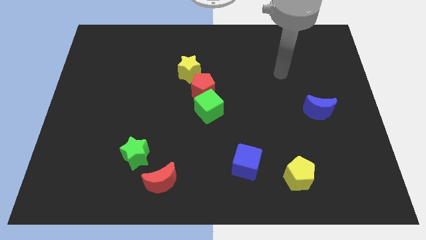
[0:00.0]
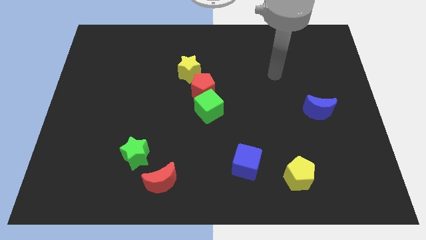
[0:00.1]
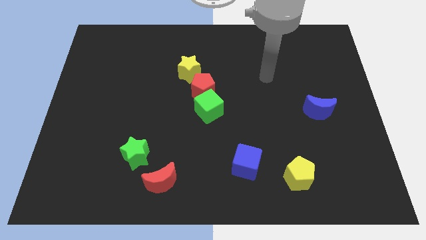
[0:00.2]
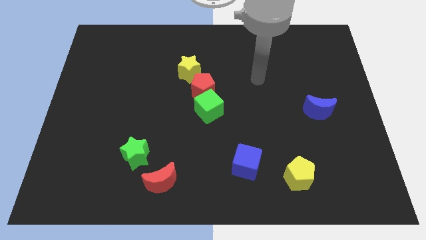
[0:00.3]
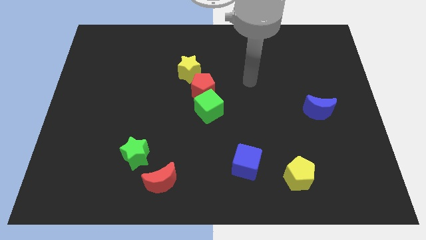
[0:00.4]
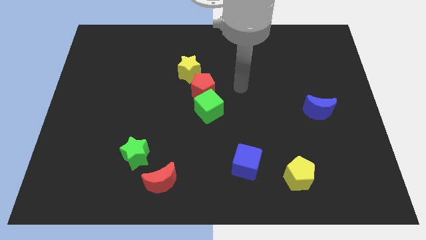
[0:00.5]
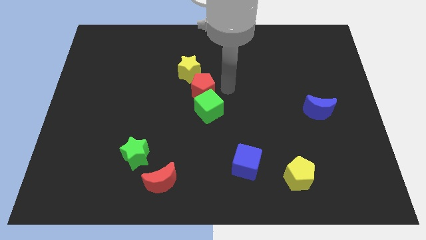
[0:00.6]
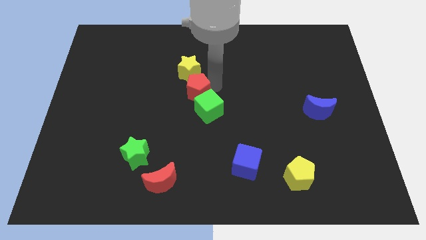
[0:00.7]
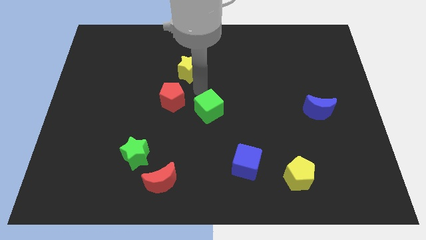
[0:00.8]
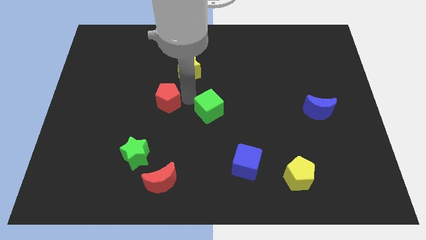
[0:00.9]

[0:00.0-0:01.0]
pull the green cube apart from the red pentagon

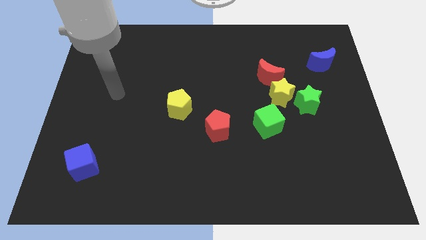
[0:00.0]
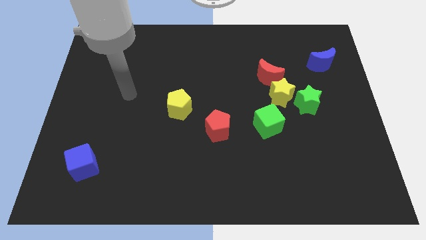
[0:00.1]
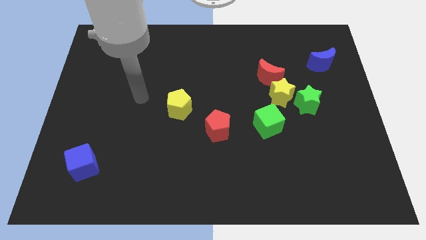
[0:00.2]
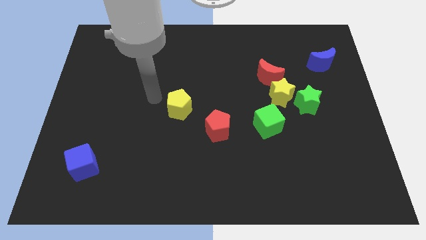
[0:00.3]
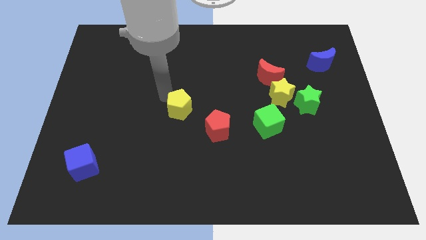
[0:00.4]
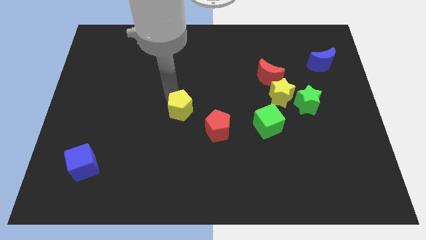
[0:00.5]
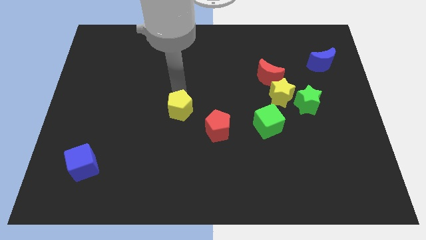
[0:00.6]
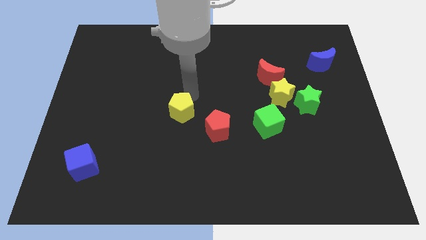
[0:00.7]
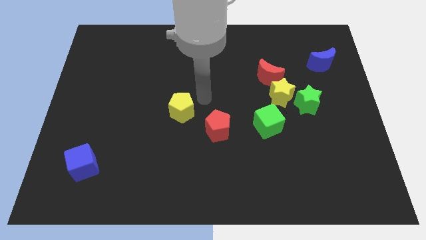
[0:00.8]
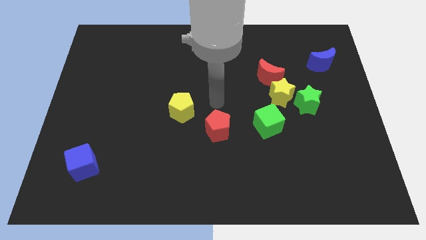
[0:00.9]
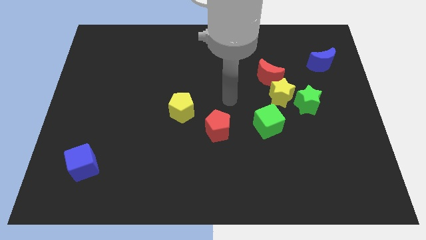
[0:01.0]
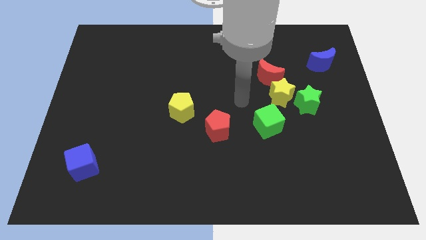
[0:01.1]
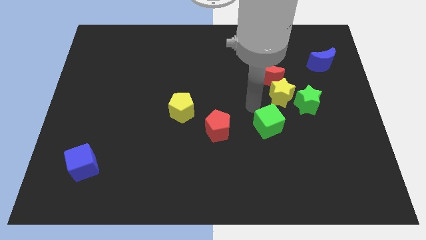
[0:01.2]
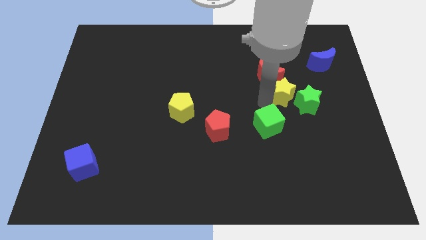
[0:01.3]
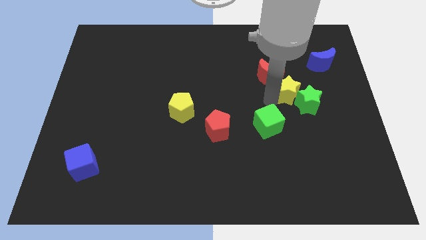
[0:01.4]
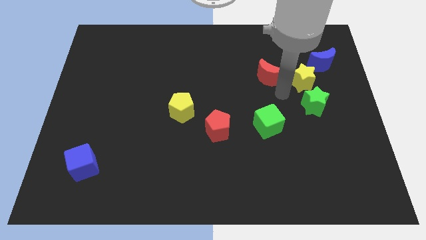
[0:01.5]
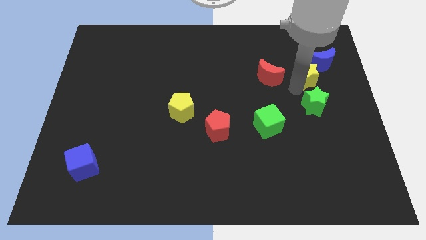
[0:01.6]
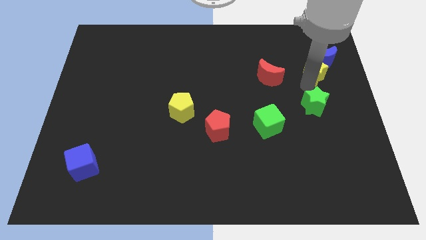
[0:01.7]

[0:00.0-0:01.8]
pull the green star apart from the yellow star

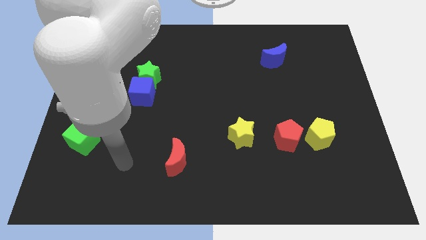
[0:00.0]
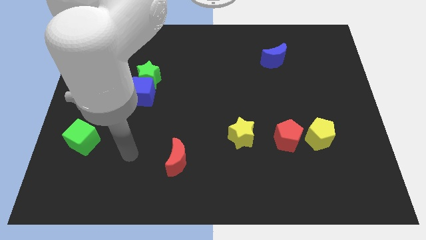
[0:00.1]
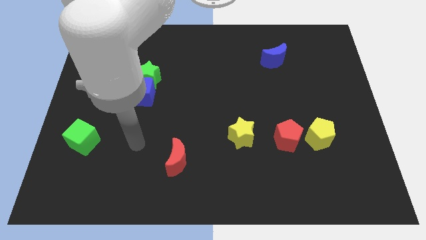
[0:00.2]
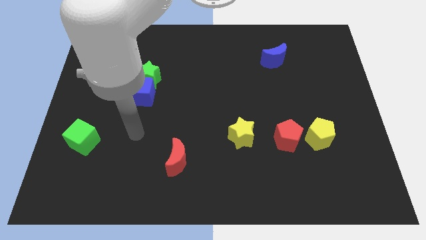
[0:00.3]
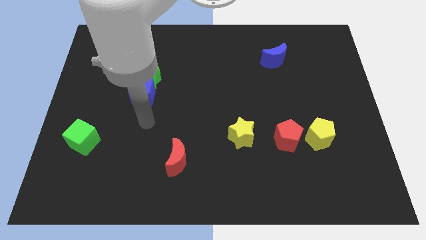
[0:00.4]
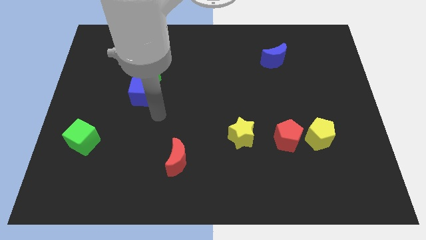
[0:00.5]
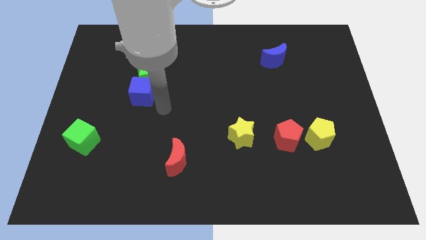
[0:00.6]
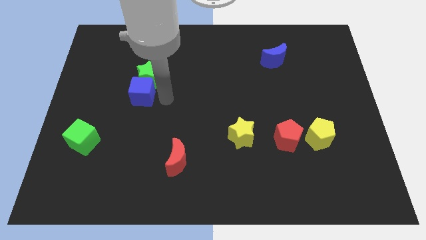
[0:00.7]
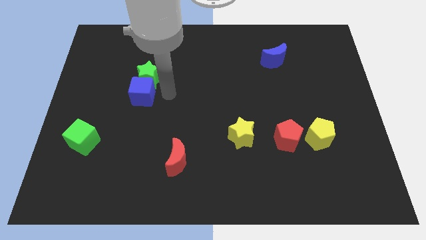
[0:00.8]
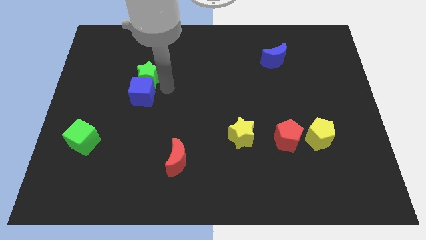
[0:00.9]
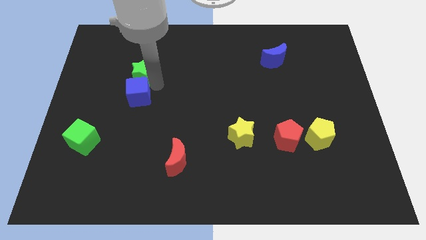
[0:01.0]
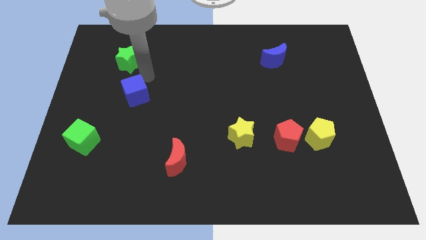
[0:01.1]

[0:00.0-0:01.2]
separate the blue cube from the green star

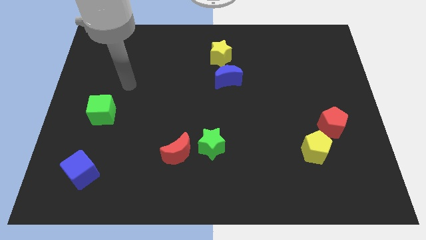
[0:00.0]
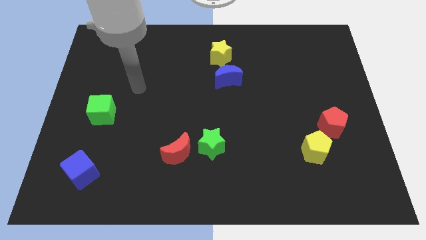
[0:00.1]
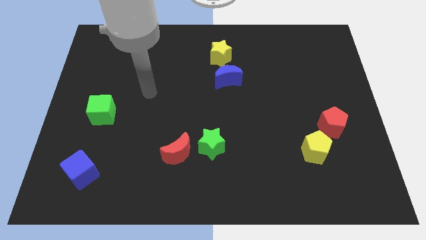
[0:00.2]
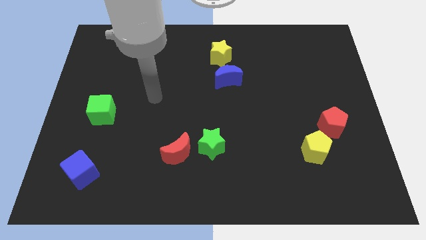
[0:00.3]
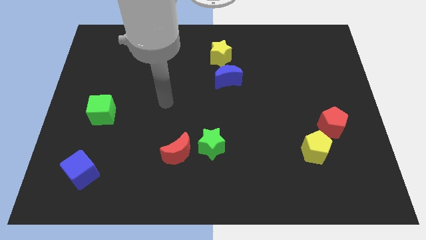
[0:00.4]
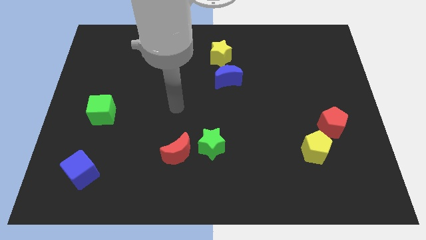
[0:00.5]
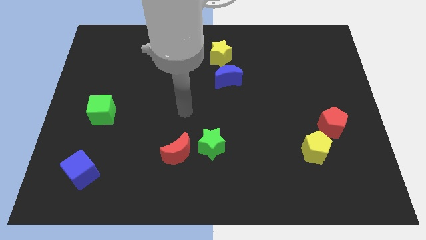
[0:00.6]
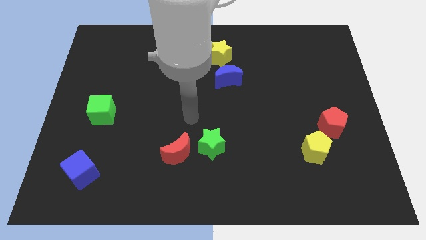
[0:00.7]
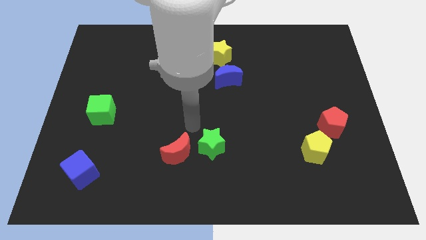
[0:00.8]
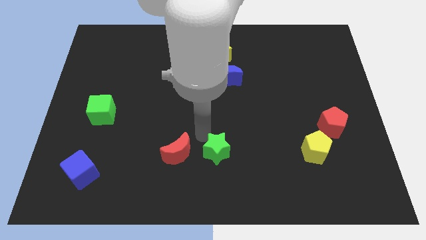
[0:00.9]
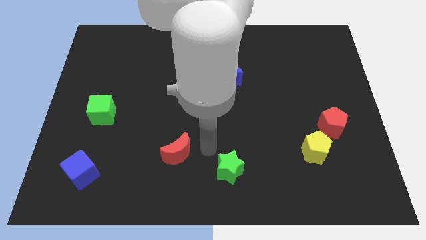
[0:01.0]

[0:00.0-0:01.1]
separate the red moon from the green star

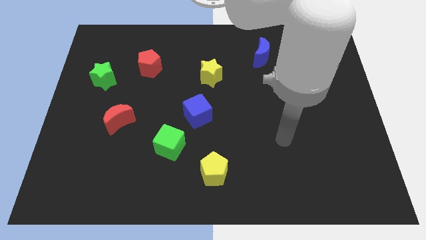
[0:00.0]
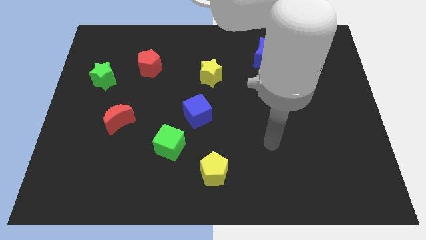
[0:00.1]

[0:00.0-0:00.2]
separate the blue cube from the green cube

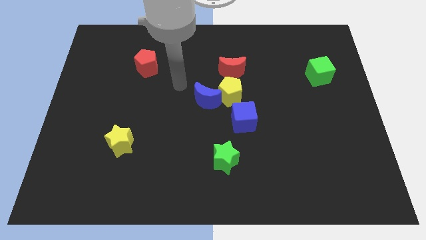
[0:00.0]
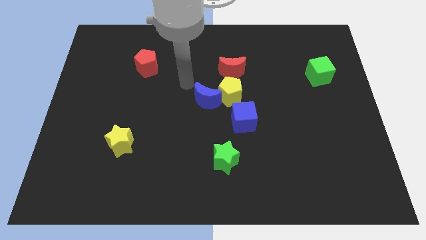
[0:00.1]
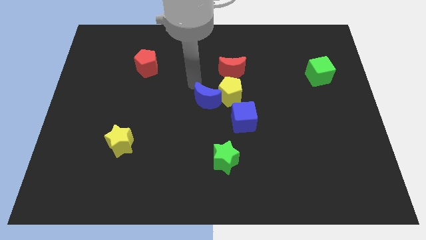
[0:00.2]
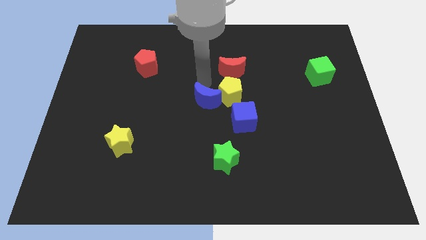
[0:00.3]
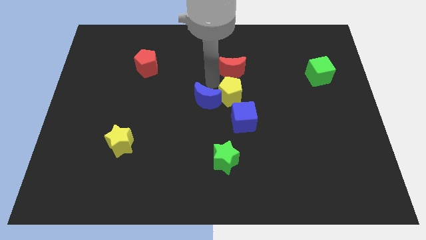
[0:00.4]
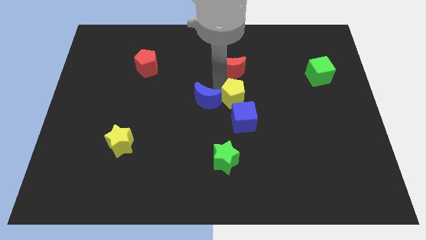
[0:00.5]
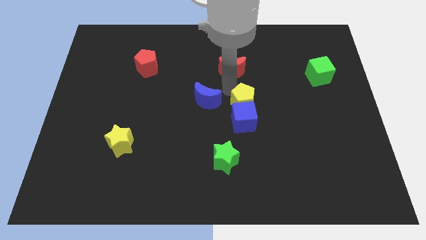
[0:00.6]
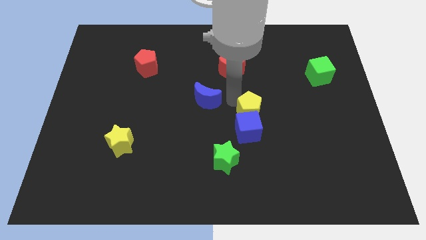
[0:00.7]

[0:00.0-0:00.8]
pull the blue moon apart from the yellow pentagon

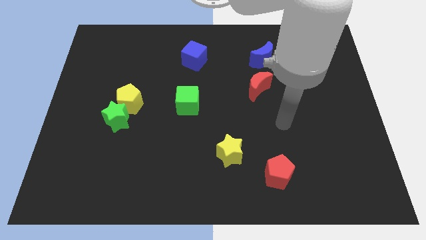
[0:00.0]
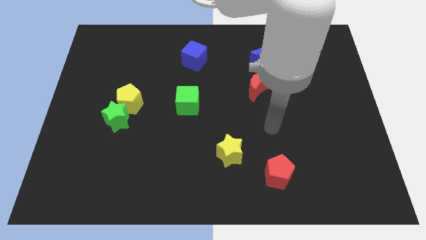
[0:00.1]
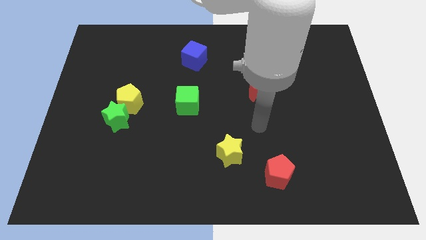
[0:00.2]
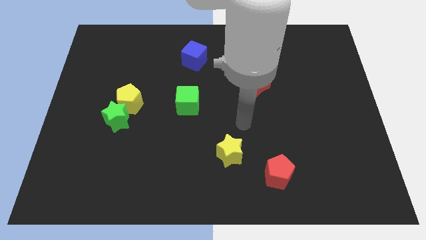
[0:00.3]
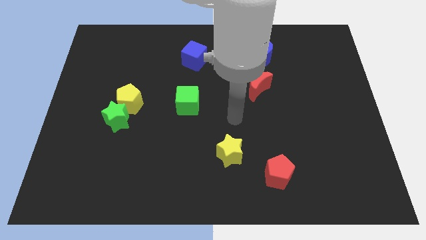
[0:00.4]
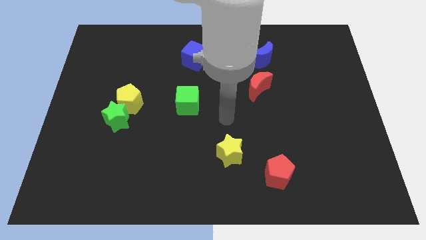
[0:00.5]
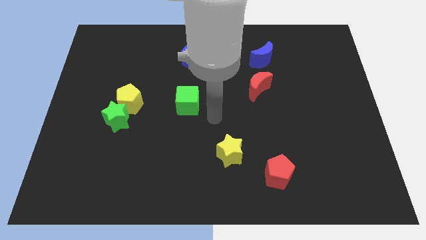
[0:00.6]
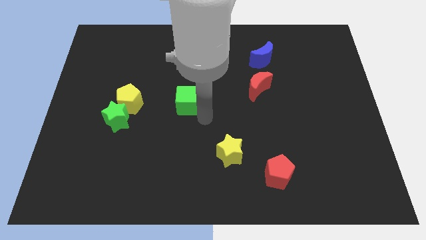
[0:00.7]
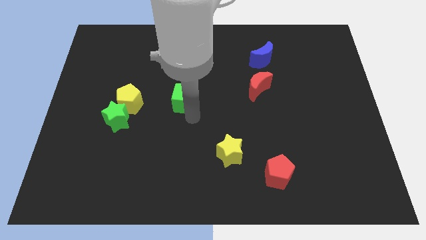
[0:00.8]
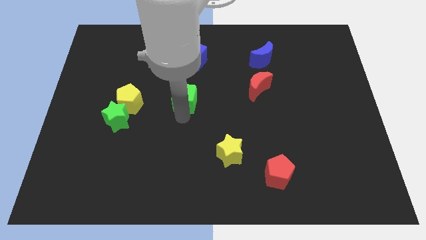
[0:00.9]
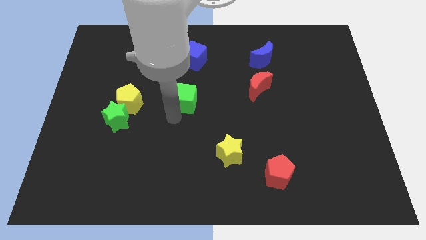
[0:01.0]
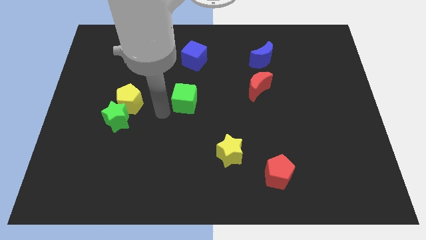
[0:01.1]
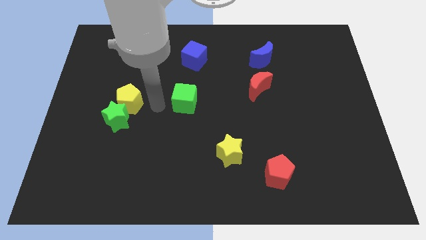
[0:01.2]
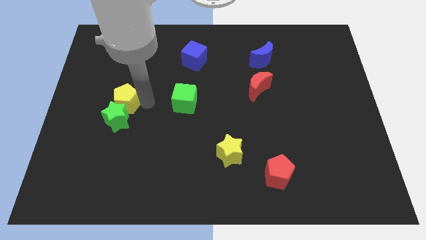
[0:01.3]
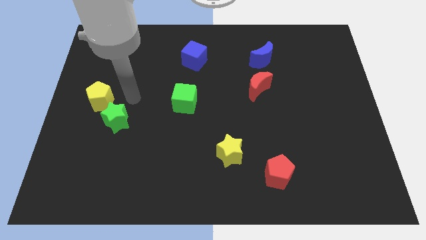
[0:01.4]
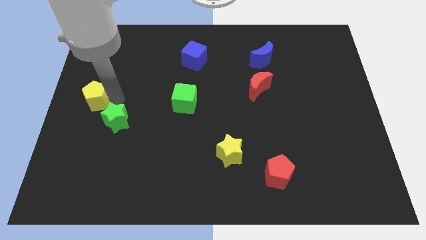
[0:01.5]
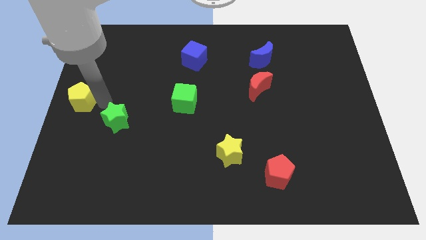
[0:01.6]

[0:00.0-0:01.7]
separate the green star from the yellow pentagon

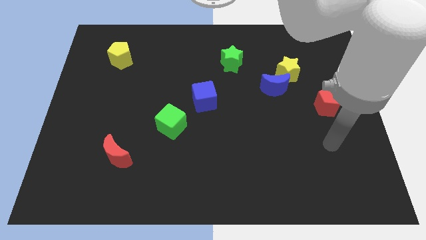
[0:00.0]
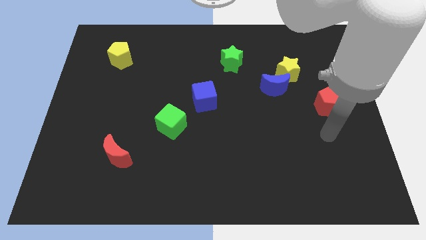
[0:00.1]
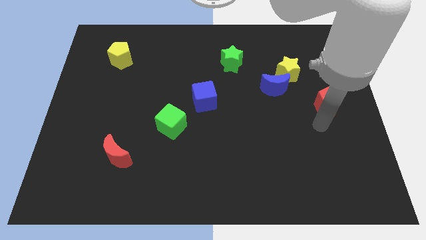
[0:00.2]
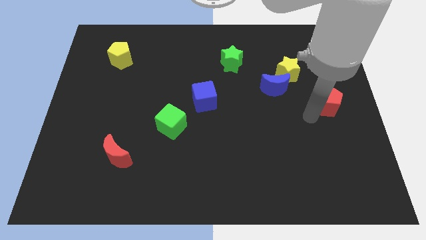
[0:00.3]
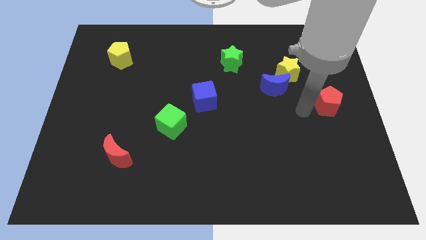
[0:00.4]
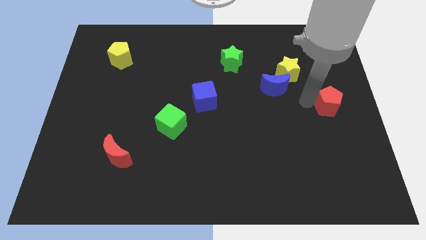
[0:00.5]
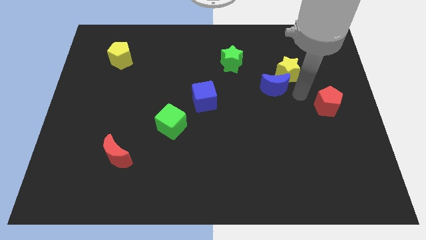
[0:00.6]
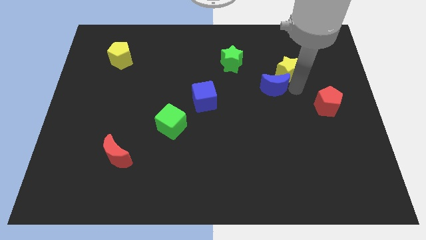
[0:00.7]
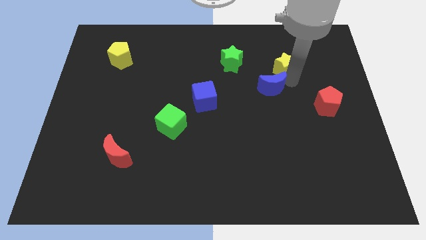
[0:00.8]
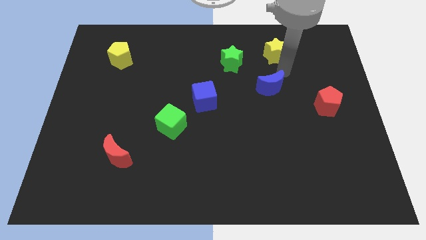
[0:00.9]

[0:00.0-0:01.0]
move the blue moon away from the yellow star

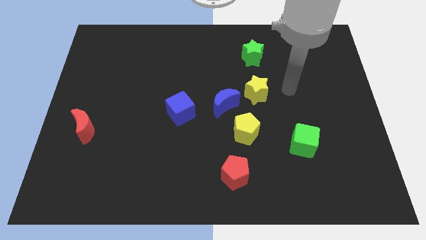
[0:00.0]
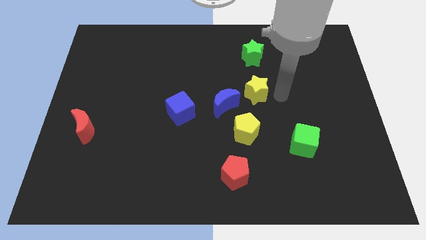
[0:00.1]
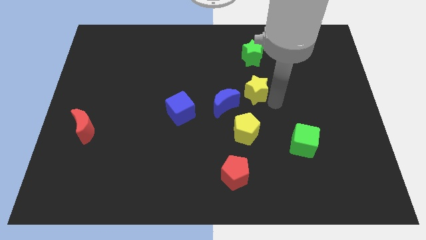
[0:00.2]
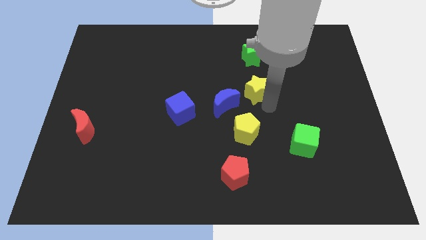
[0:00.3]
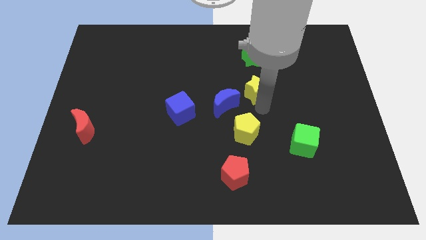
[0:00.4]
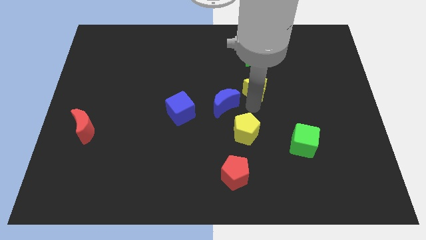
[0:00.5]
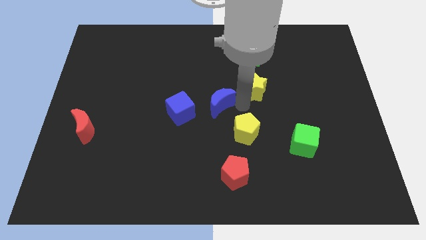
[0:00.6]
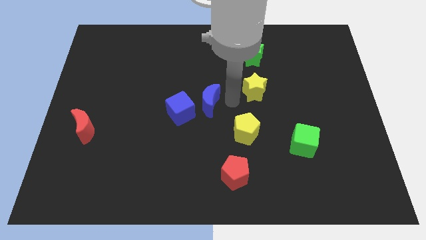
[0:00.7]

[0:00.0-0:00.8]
separate the yellow star from the blue moon
